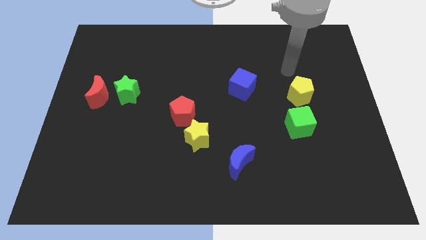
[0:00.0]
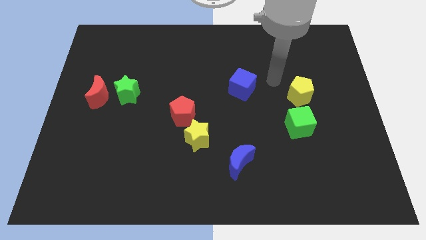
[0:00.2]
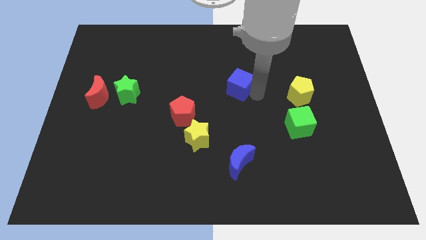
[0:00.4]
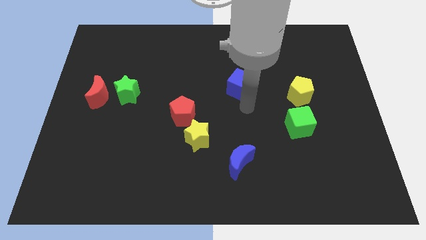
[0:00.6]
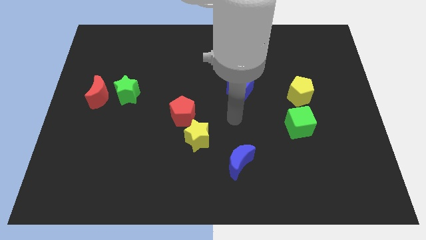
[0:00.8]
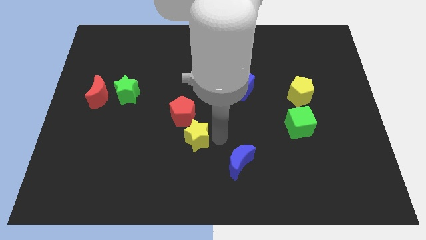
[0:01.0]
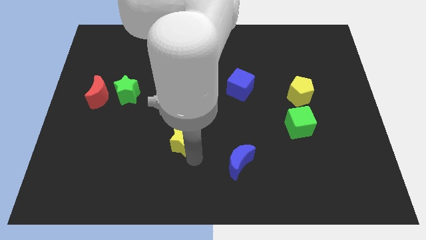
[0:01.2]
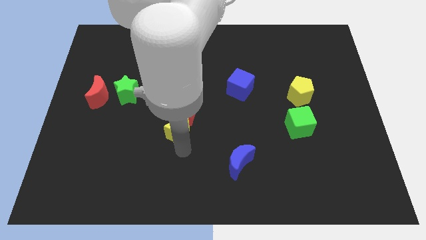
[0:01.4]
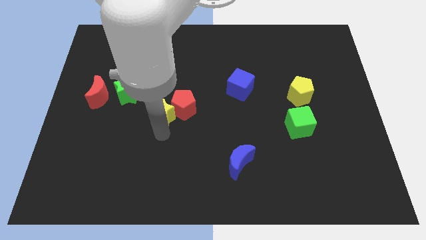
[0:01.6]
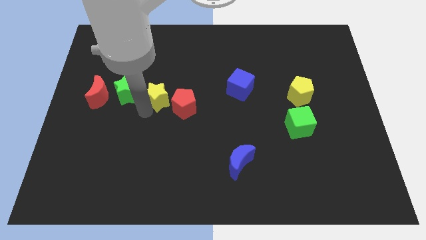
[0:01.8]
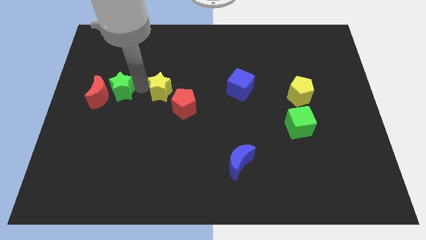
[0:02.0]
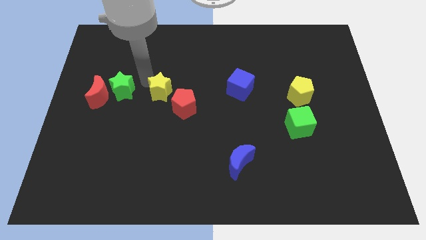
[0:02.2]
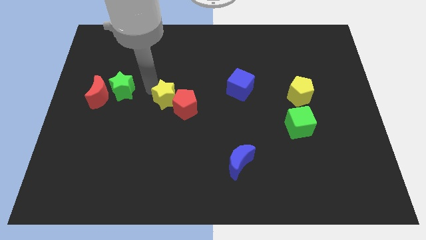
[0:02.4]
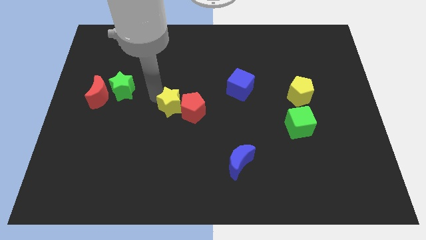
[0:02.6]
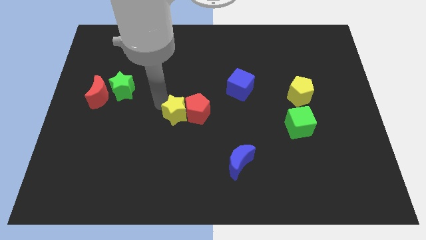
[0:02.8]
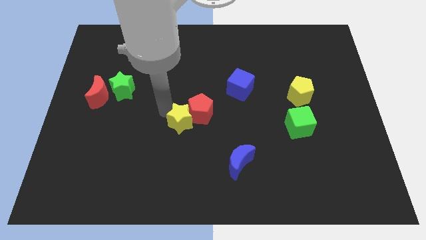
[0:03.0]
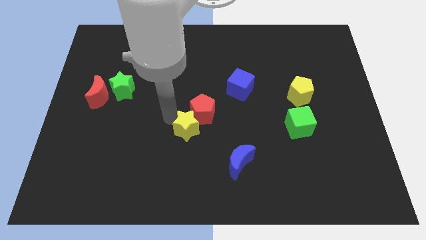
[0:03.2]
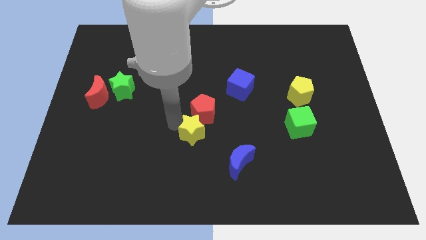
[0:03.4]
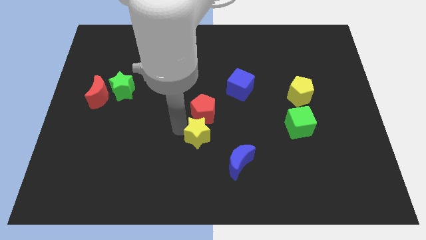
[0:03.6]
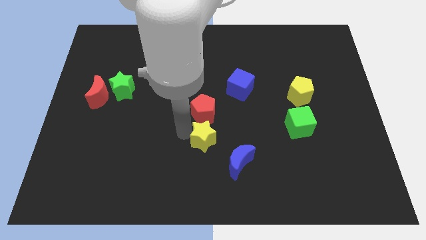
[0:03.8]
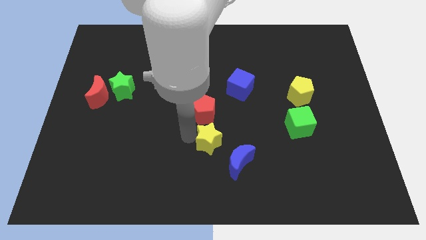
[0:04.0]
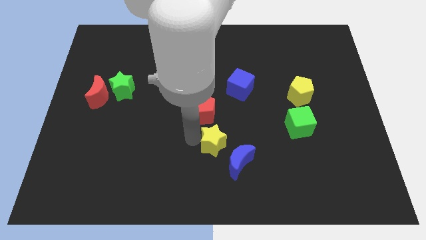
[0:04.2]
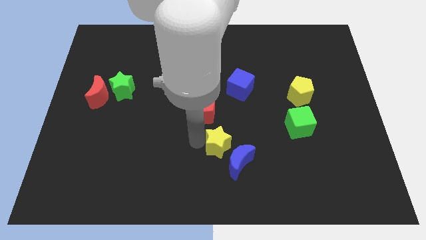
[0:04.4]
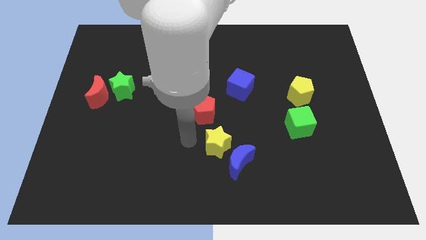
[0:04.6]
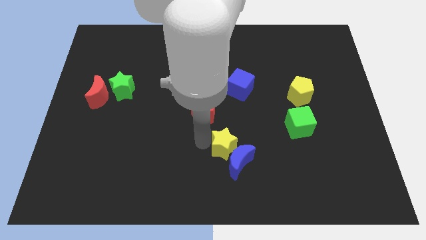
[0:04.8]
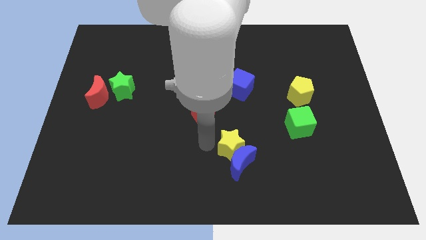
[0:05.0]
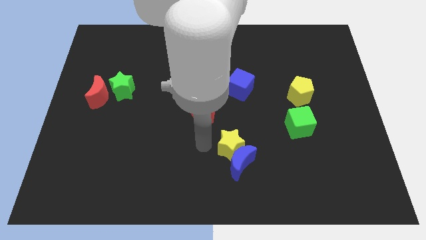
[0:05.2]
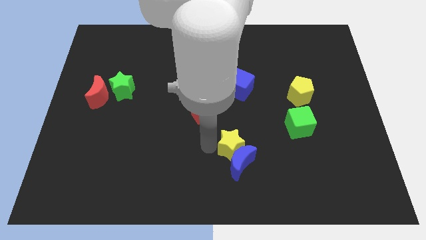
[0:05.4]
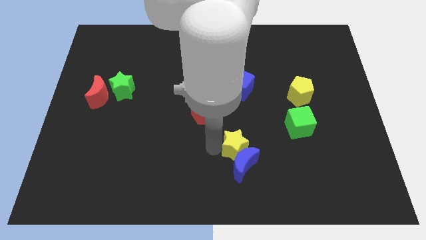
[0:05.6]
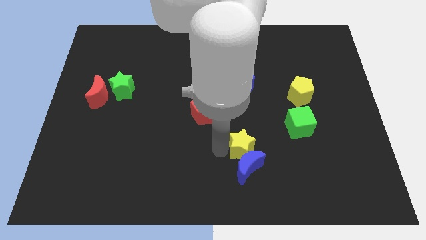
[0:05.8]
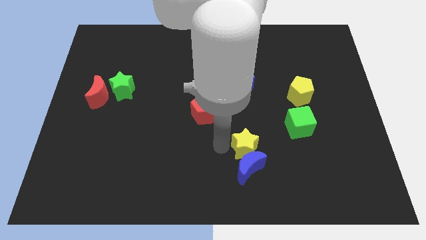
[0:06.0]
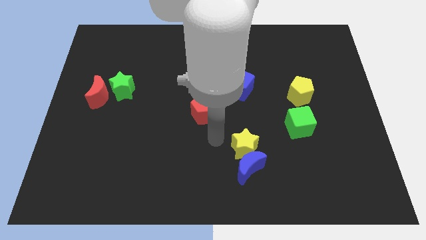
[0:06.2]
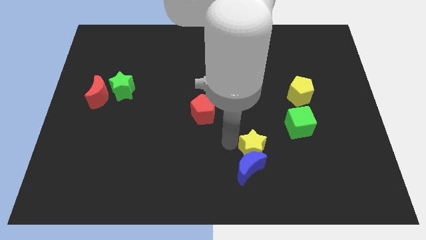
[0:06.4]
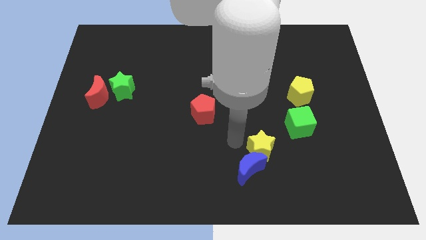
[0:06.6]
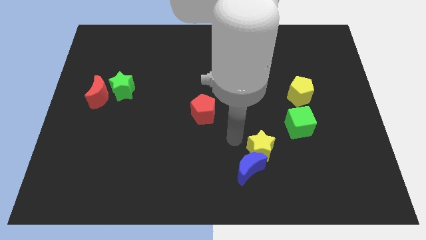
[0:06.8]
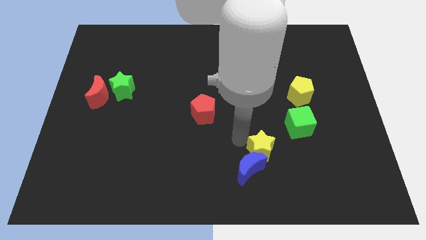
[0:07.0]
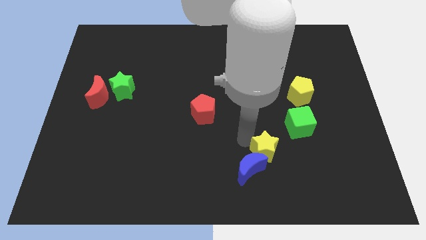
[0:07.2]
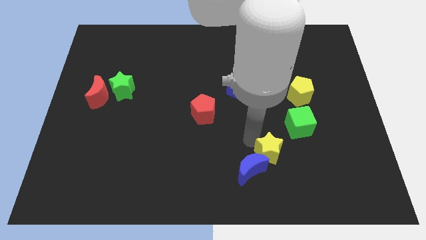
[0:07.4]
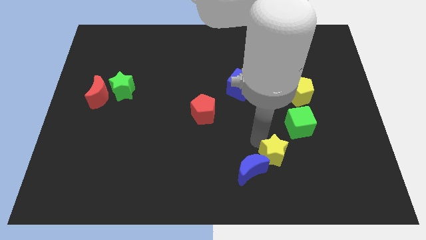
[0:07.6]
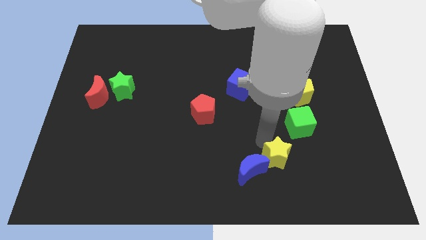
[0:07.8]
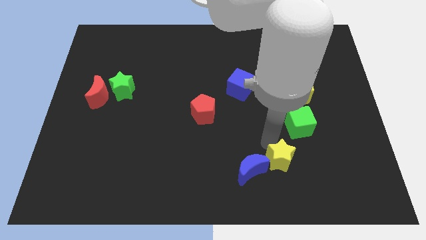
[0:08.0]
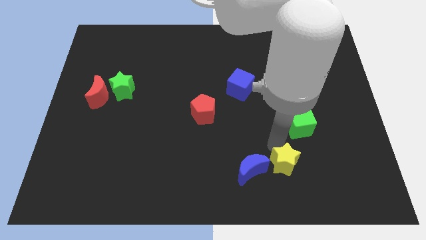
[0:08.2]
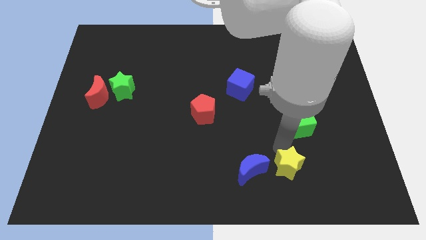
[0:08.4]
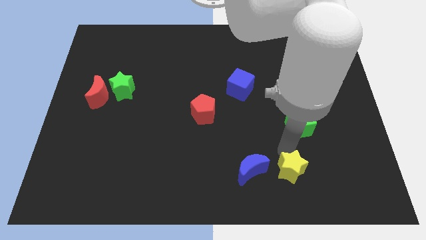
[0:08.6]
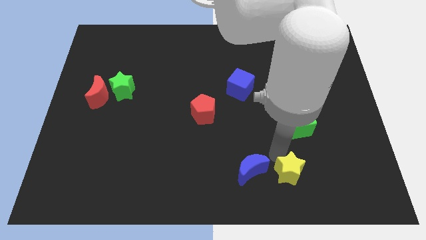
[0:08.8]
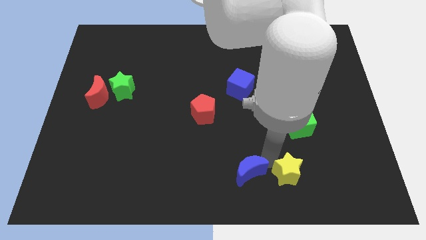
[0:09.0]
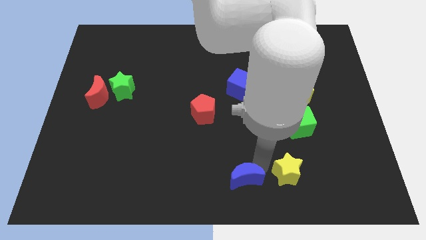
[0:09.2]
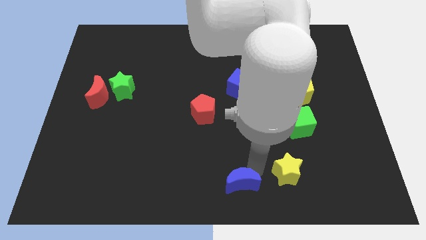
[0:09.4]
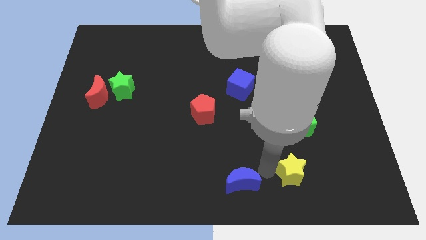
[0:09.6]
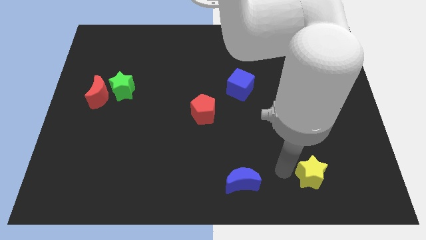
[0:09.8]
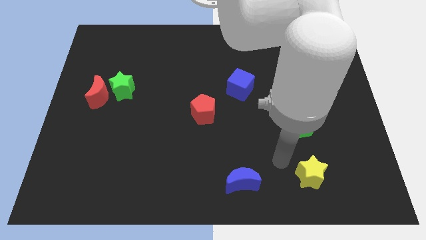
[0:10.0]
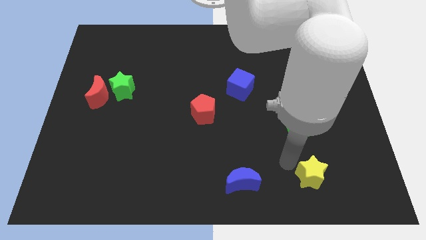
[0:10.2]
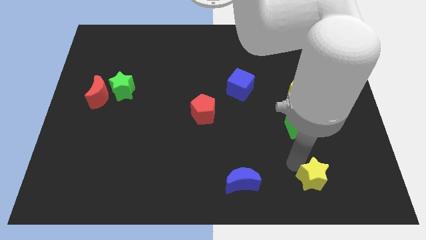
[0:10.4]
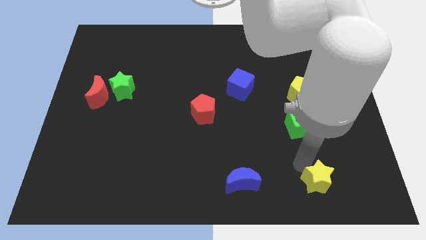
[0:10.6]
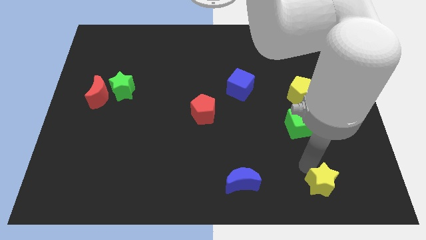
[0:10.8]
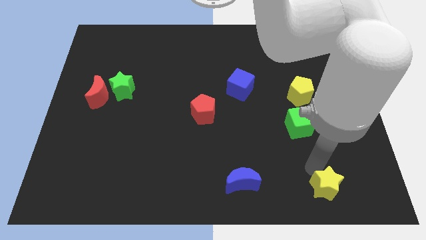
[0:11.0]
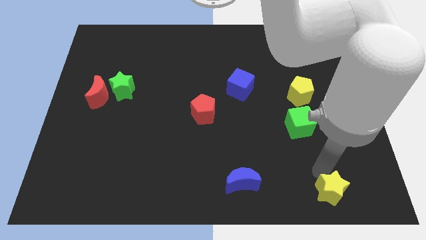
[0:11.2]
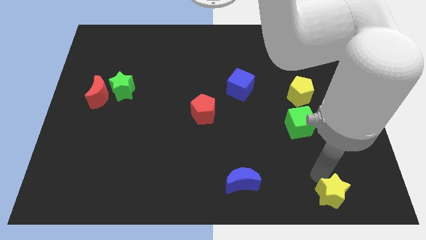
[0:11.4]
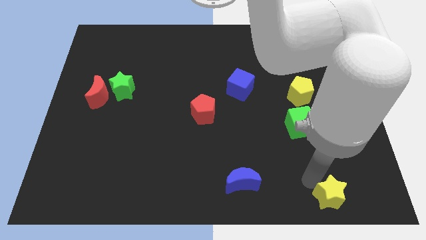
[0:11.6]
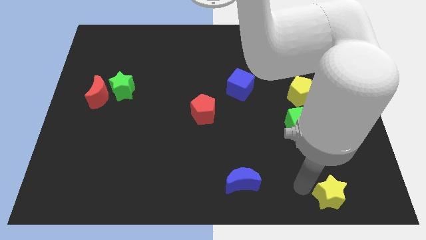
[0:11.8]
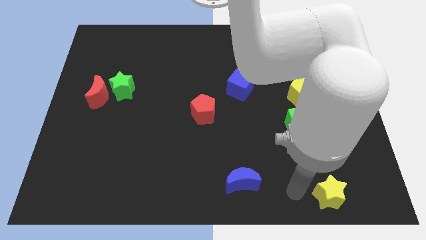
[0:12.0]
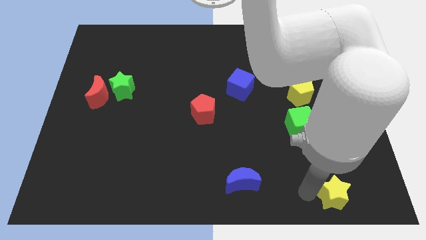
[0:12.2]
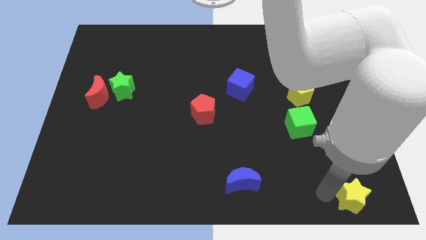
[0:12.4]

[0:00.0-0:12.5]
move the yellow star to the bottom right
